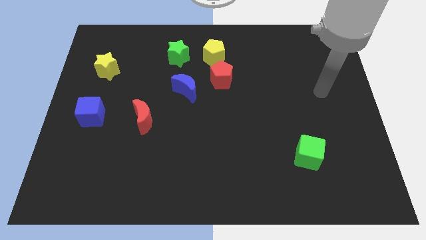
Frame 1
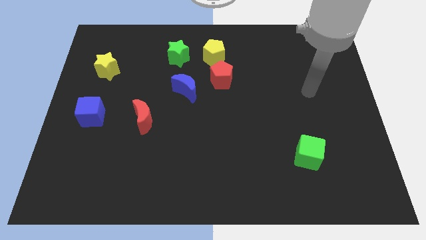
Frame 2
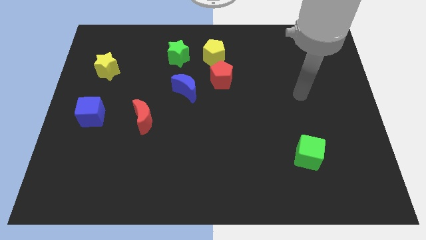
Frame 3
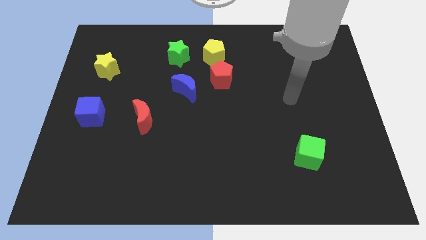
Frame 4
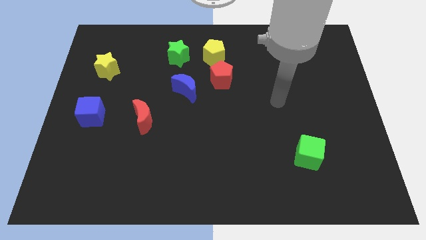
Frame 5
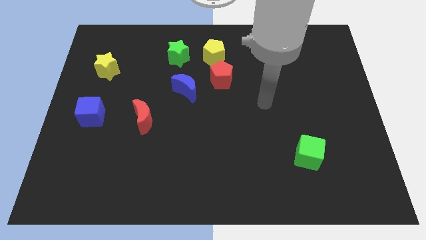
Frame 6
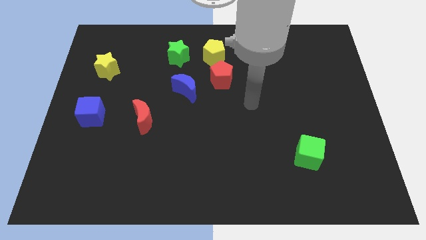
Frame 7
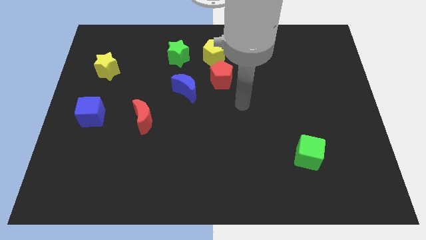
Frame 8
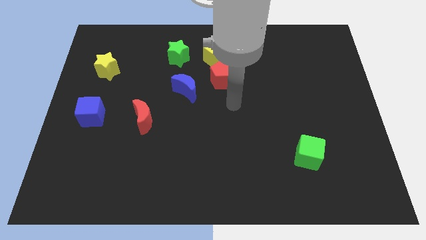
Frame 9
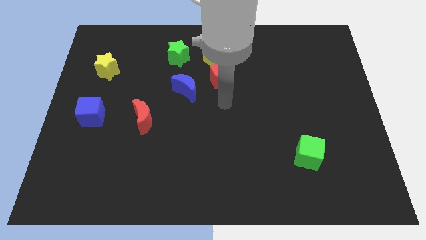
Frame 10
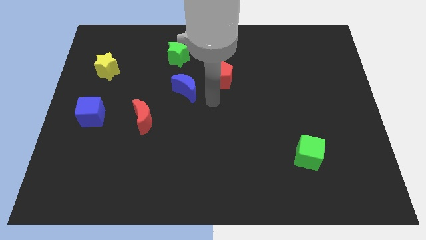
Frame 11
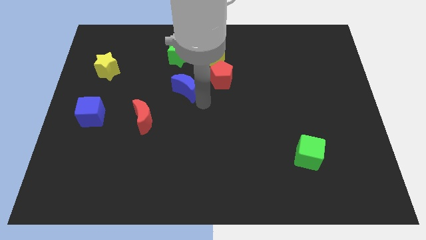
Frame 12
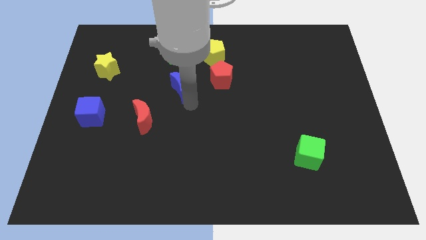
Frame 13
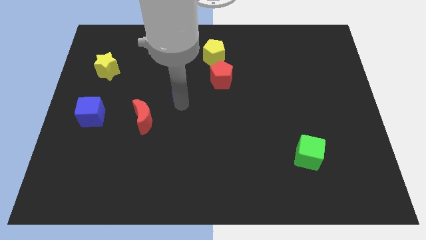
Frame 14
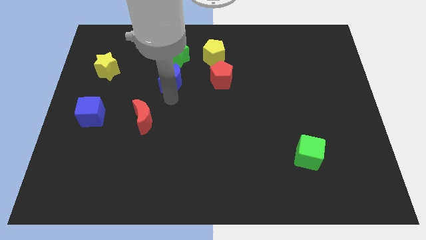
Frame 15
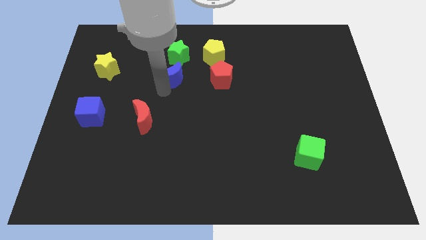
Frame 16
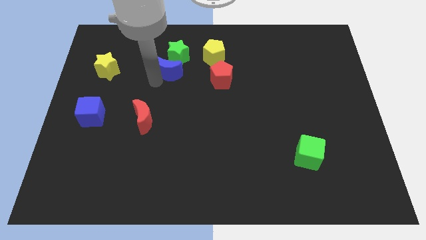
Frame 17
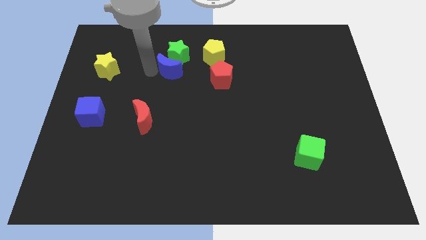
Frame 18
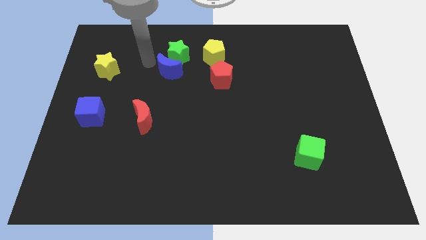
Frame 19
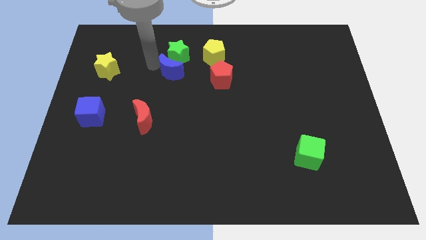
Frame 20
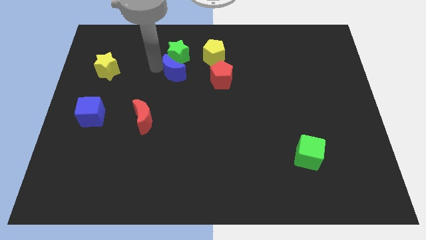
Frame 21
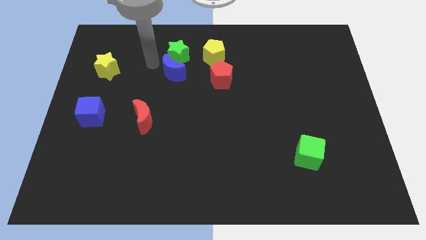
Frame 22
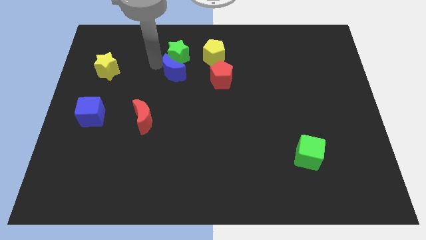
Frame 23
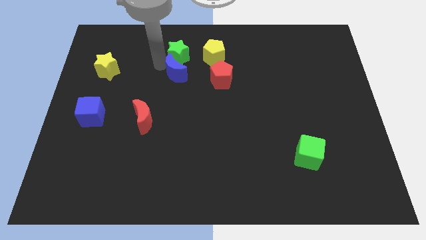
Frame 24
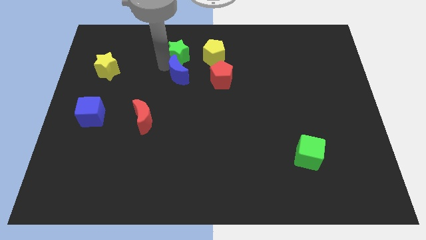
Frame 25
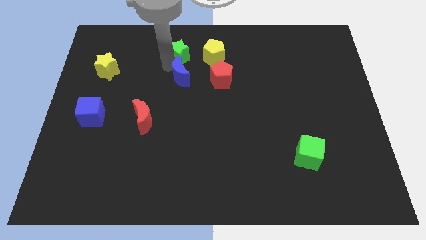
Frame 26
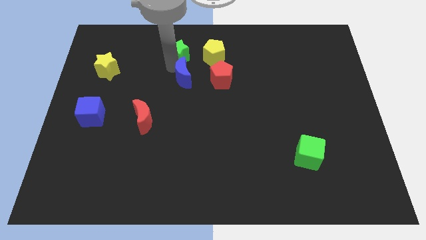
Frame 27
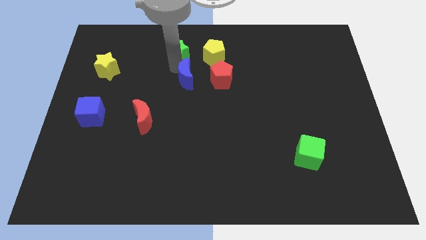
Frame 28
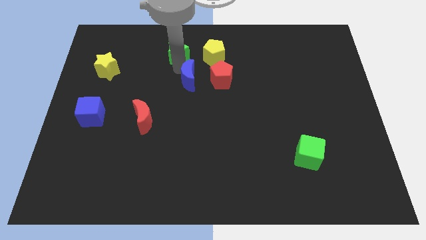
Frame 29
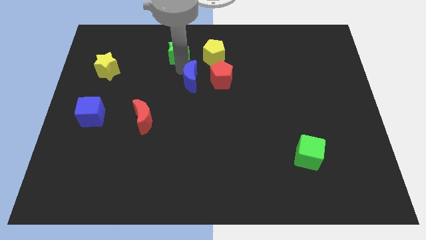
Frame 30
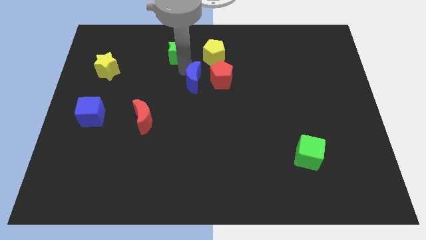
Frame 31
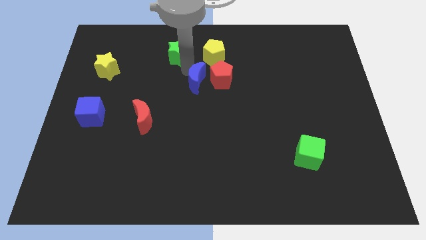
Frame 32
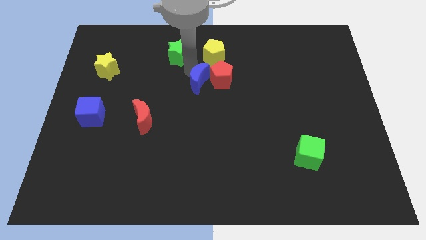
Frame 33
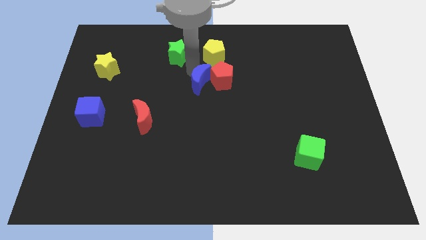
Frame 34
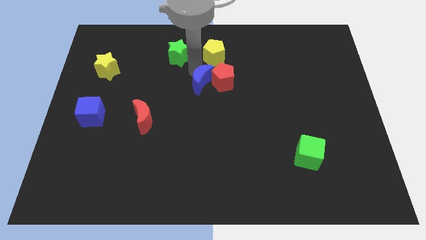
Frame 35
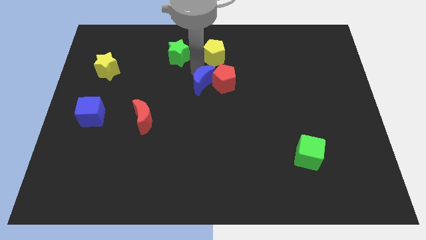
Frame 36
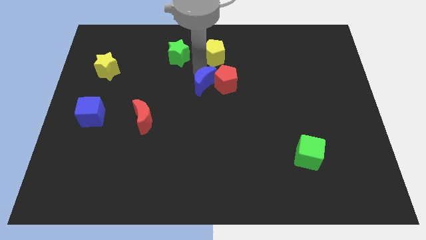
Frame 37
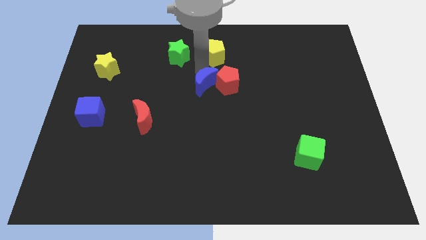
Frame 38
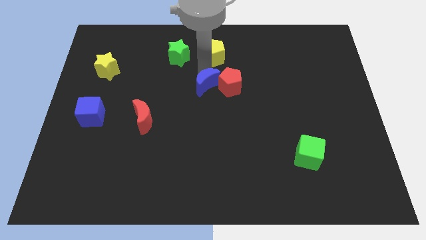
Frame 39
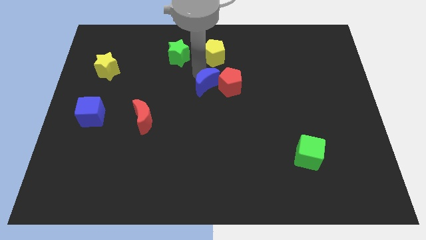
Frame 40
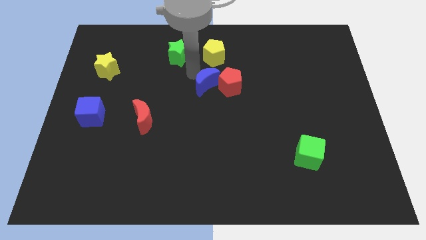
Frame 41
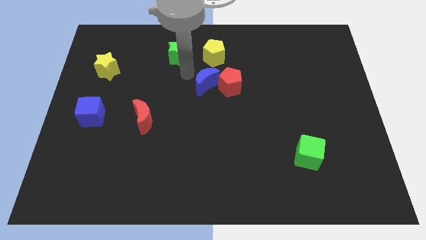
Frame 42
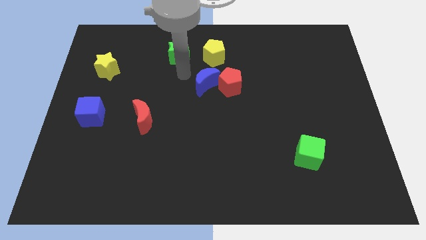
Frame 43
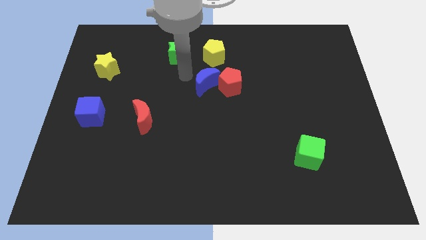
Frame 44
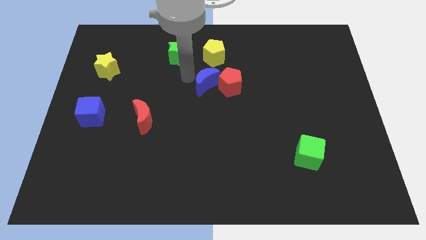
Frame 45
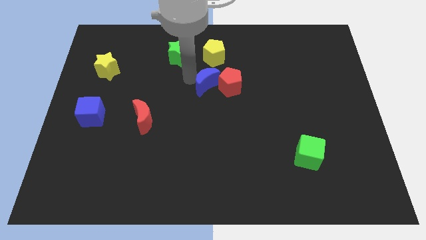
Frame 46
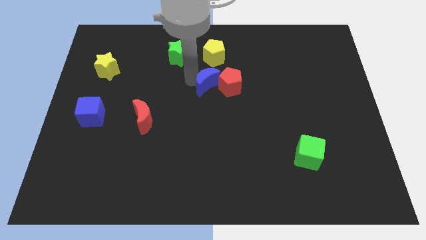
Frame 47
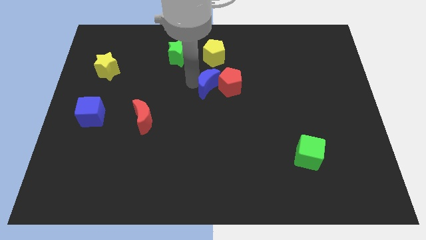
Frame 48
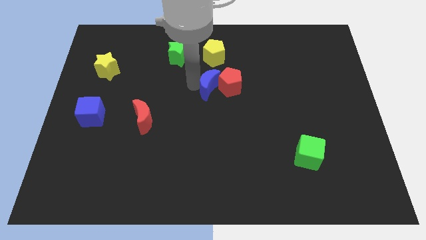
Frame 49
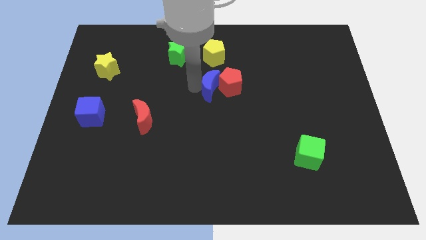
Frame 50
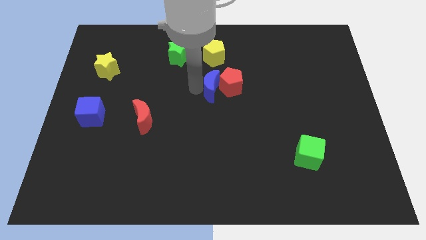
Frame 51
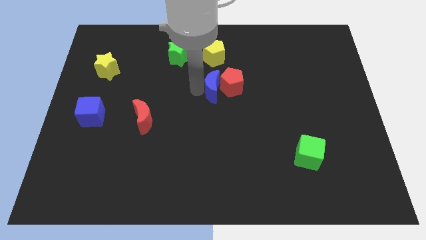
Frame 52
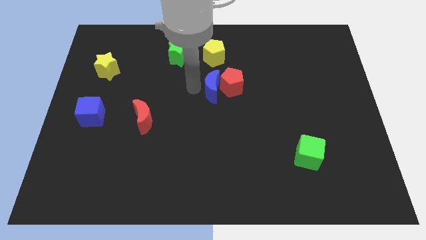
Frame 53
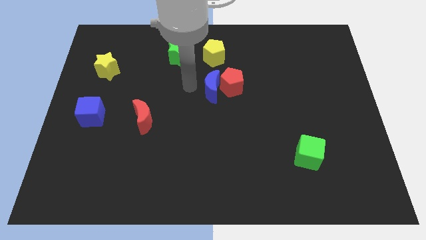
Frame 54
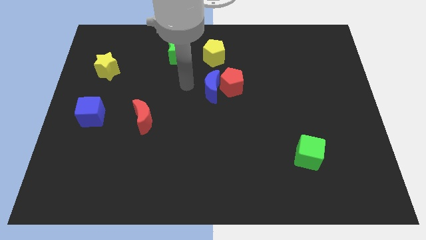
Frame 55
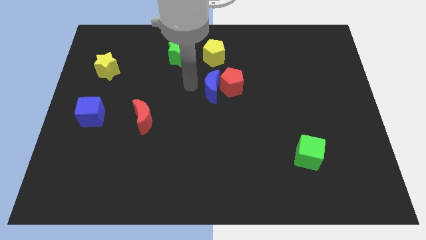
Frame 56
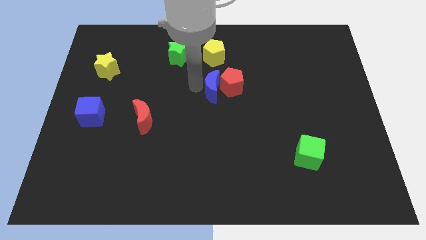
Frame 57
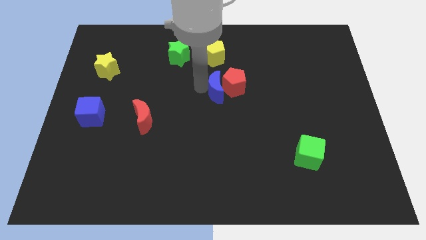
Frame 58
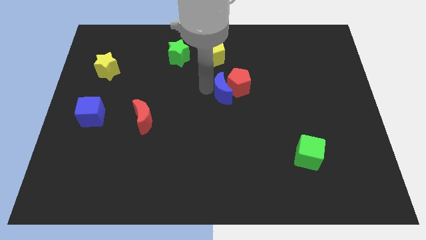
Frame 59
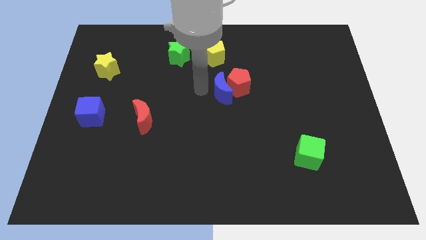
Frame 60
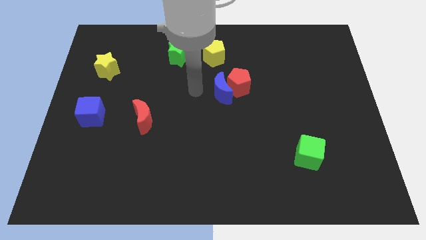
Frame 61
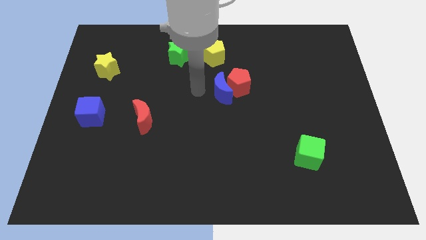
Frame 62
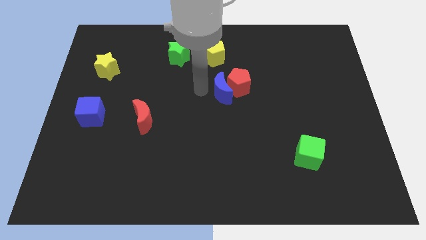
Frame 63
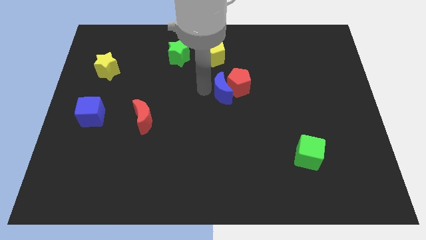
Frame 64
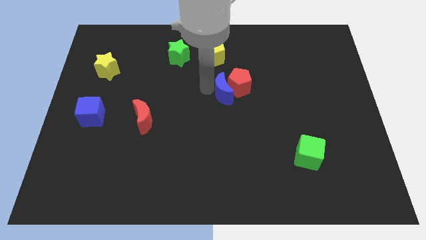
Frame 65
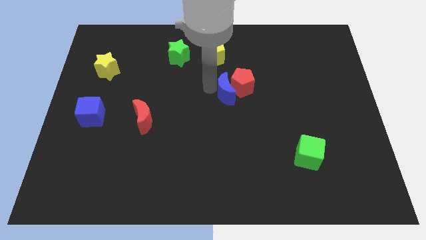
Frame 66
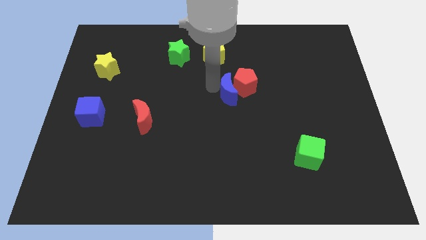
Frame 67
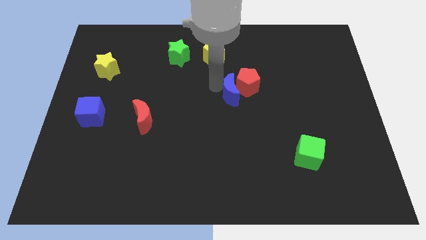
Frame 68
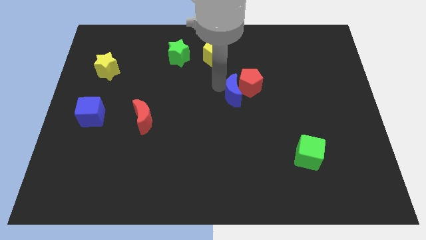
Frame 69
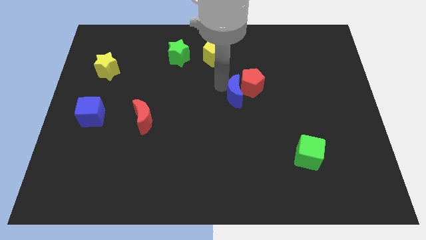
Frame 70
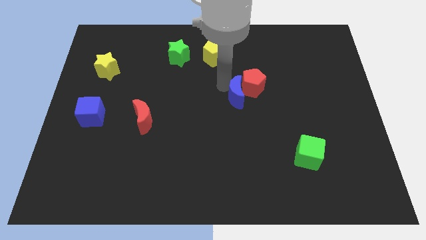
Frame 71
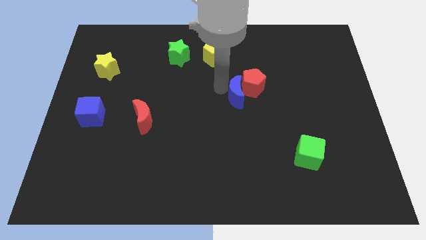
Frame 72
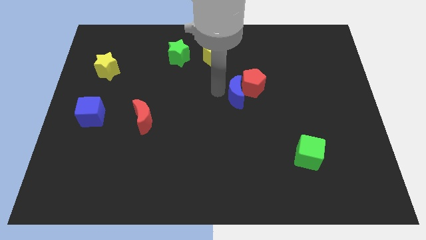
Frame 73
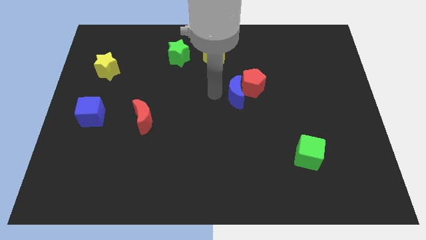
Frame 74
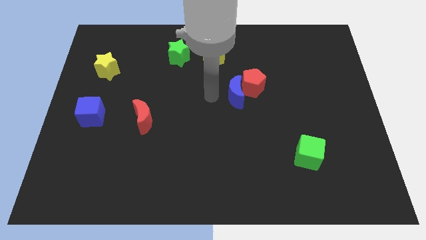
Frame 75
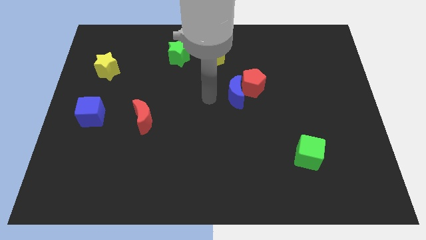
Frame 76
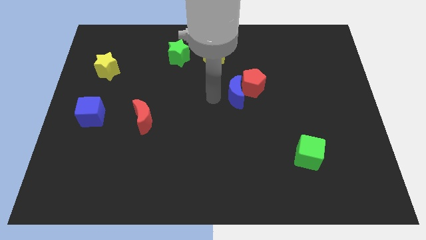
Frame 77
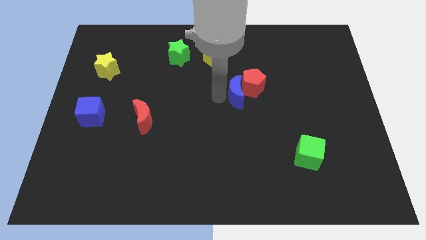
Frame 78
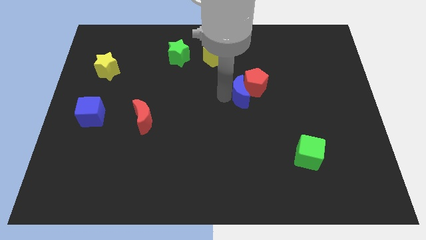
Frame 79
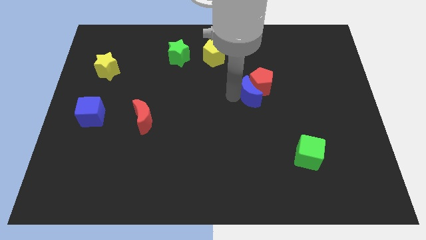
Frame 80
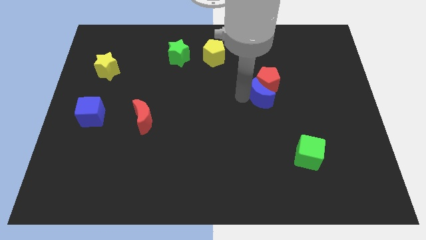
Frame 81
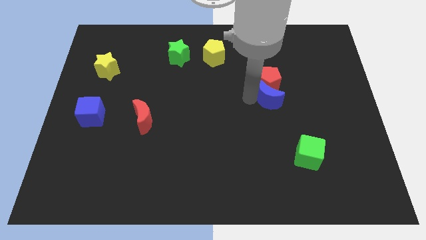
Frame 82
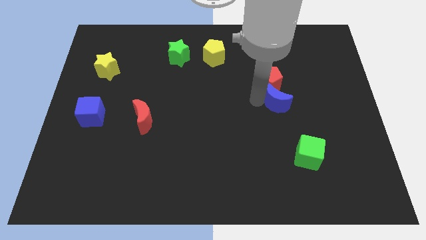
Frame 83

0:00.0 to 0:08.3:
move the blue moon right
